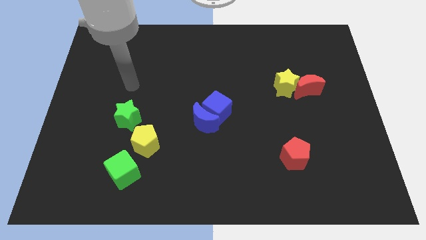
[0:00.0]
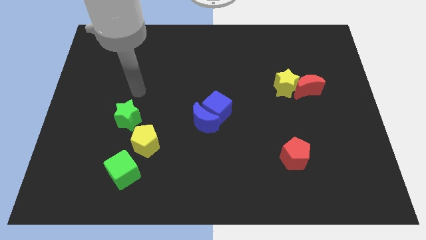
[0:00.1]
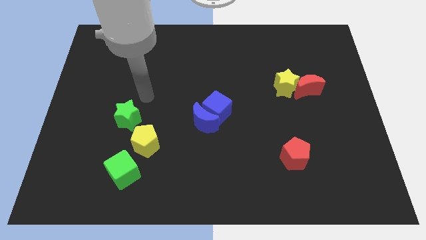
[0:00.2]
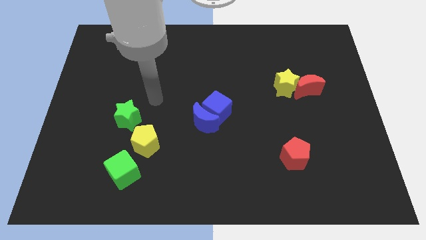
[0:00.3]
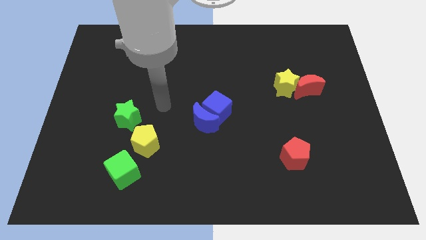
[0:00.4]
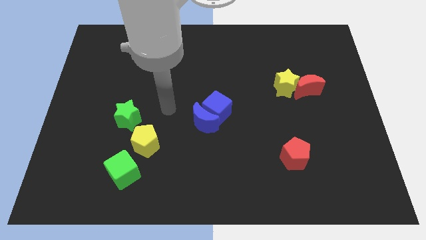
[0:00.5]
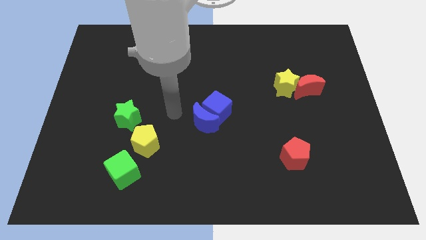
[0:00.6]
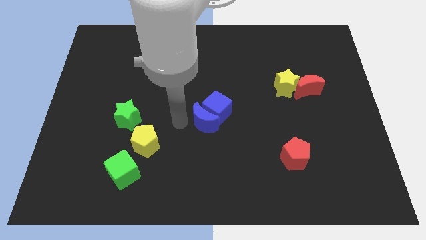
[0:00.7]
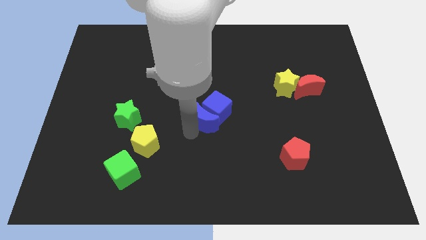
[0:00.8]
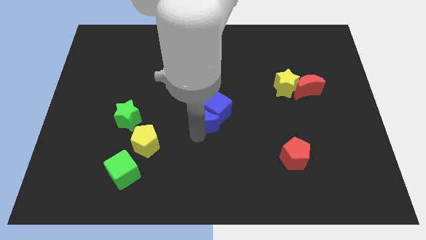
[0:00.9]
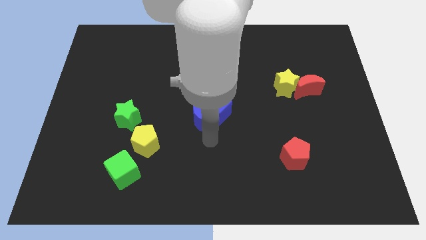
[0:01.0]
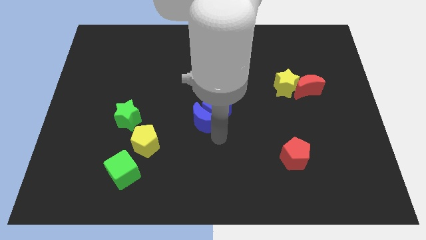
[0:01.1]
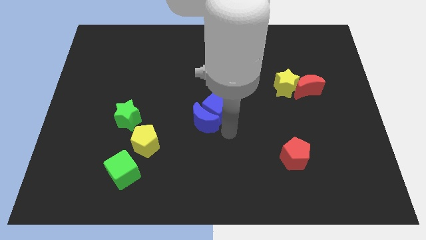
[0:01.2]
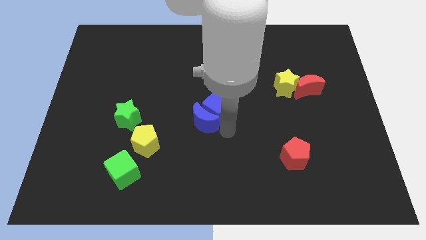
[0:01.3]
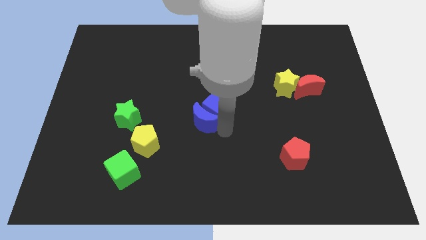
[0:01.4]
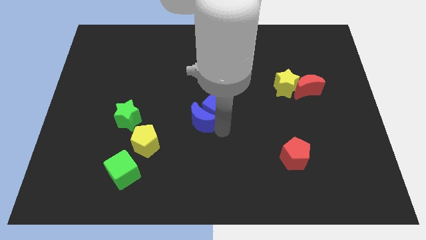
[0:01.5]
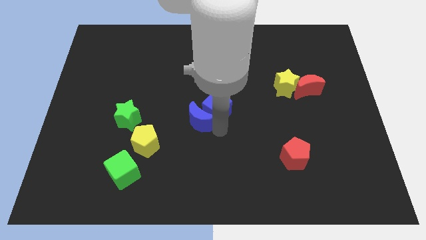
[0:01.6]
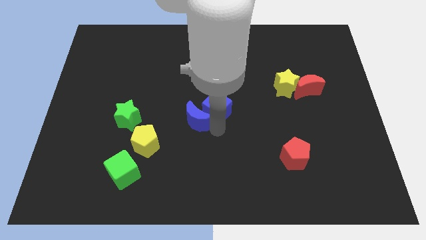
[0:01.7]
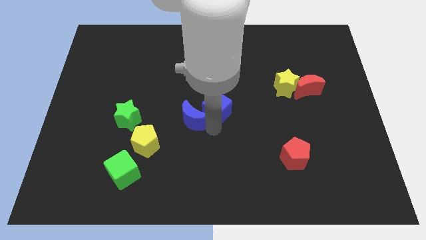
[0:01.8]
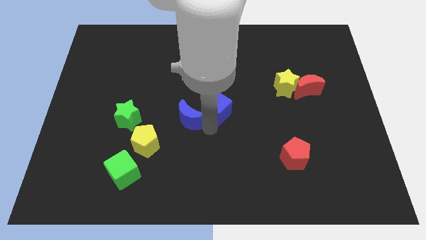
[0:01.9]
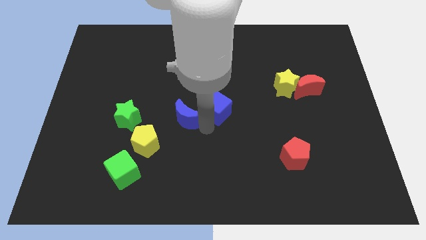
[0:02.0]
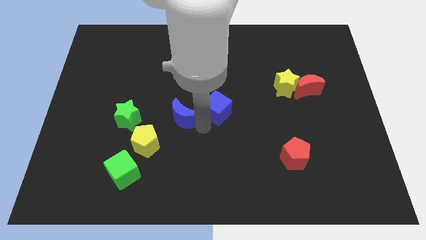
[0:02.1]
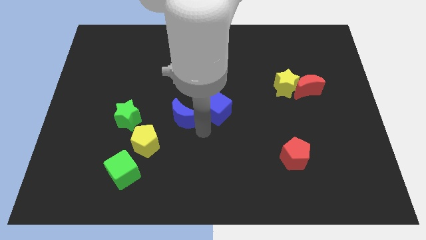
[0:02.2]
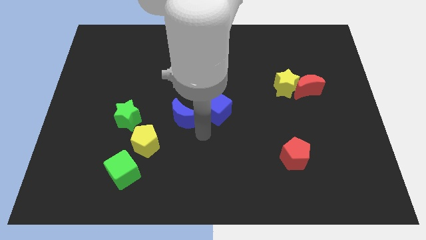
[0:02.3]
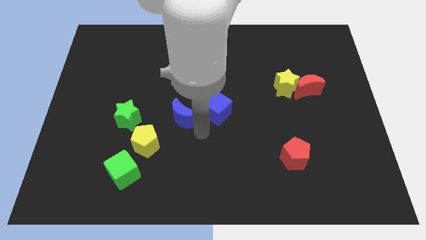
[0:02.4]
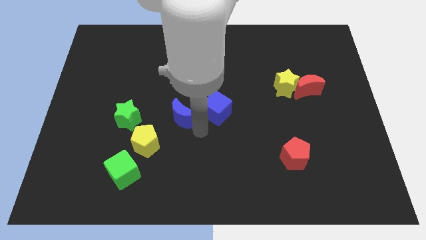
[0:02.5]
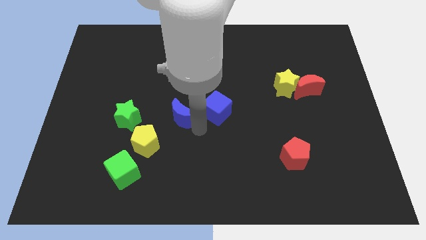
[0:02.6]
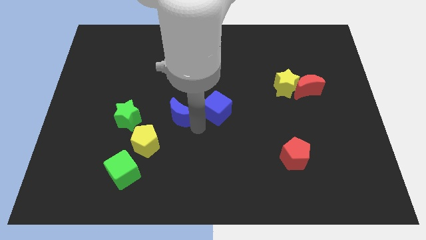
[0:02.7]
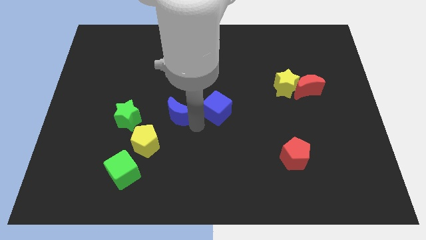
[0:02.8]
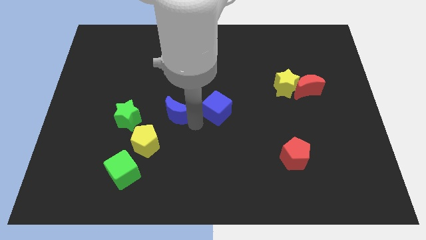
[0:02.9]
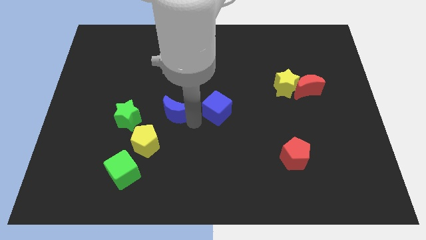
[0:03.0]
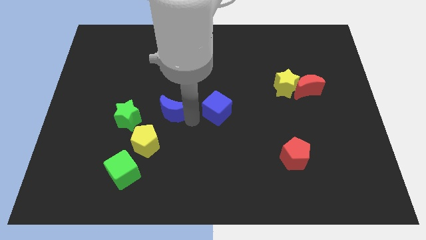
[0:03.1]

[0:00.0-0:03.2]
slide the blue moon a little bit up and to the left diagonally

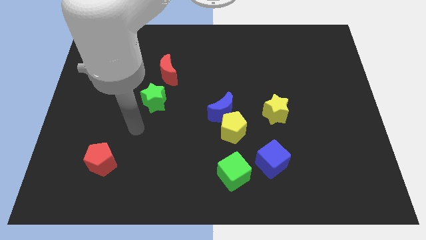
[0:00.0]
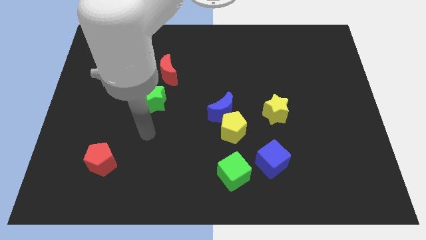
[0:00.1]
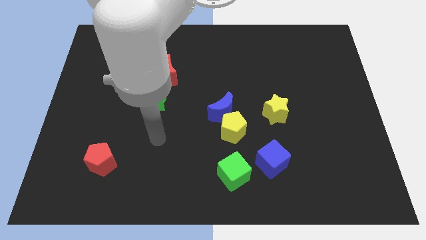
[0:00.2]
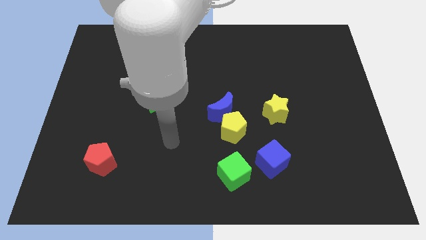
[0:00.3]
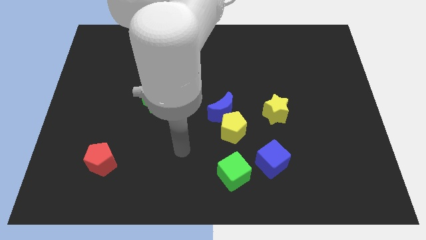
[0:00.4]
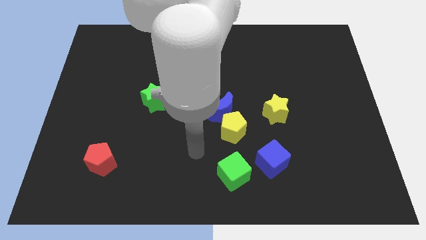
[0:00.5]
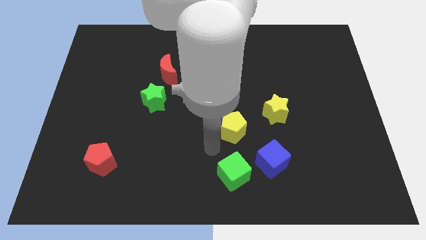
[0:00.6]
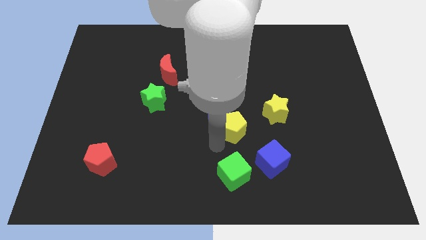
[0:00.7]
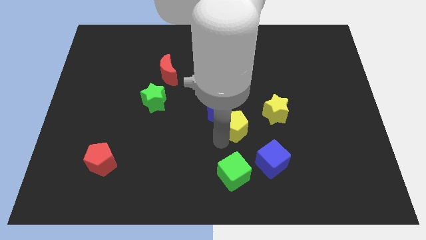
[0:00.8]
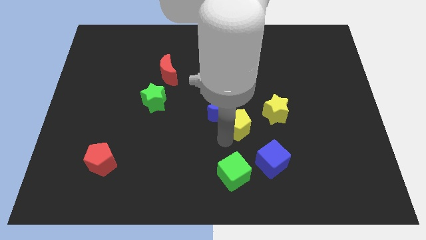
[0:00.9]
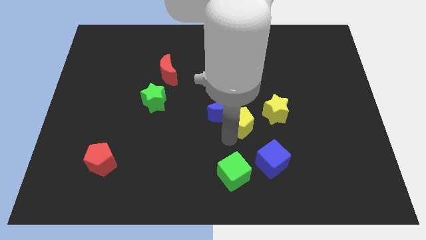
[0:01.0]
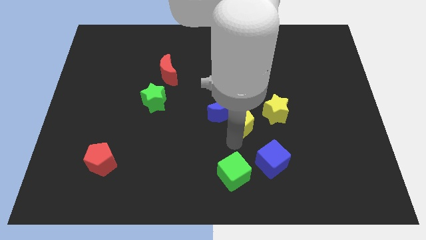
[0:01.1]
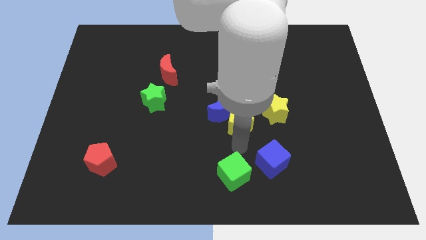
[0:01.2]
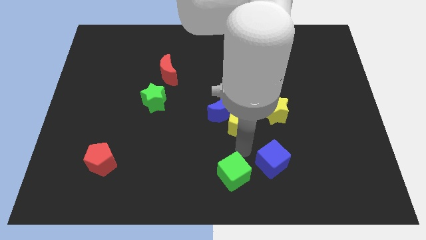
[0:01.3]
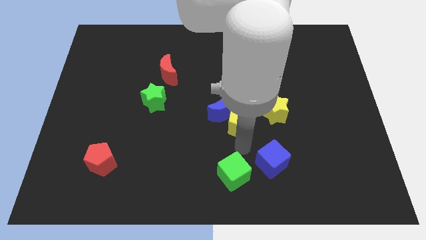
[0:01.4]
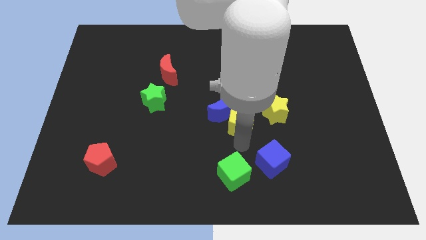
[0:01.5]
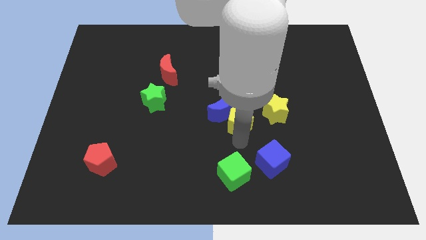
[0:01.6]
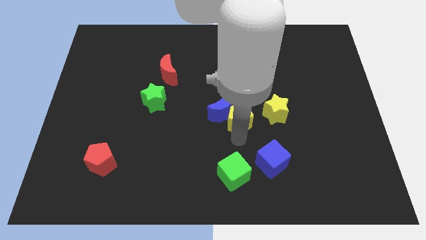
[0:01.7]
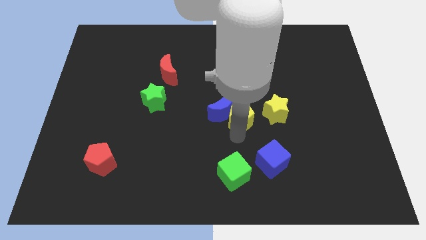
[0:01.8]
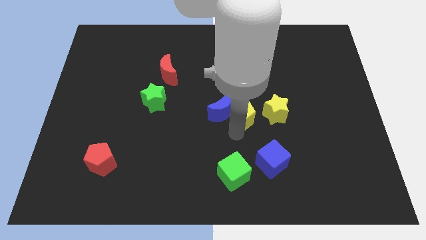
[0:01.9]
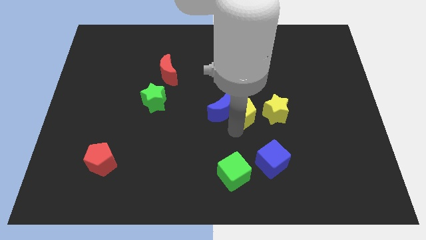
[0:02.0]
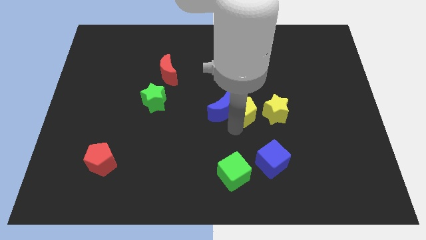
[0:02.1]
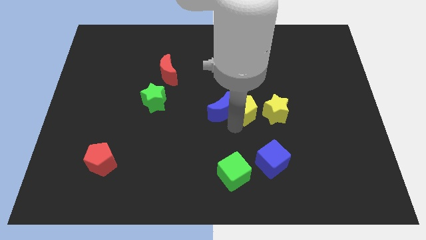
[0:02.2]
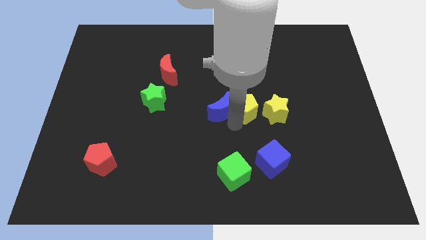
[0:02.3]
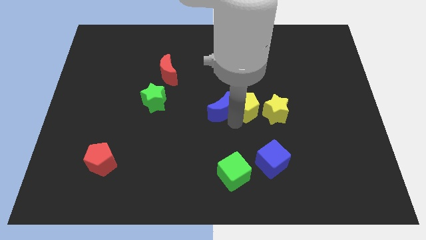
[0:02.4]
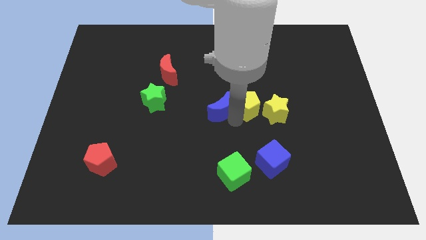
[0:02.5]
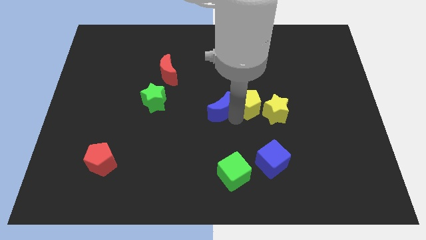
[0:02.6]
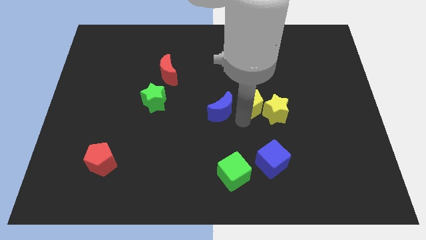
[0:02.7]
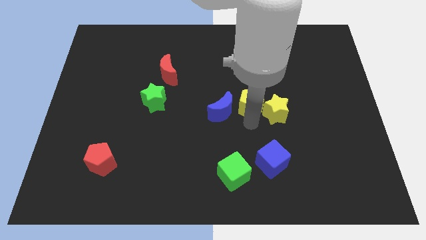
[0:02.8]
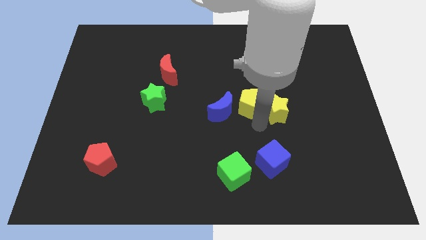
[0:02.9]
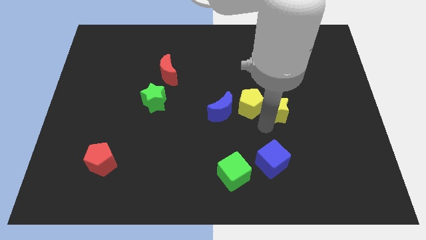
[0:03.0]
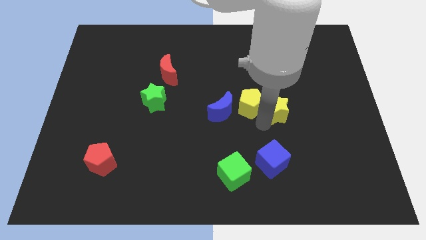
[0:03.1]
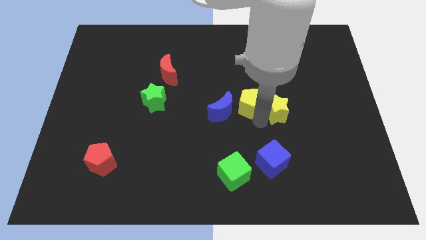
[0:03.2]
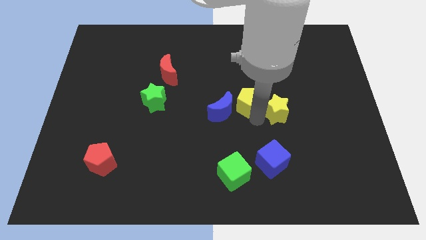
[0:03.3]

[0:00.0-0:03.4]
push the yellow pentagon up a little

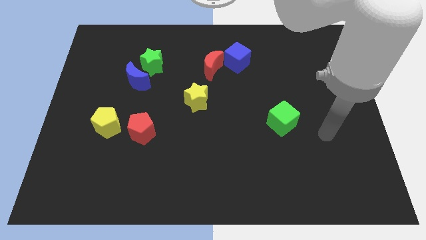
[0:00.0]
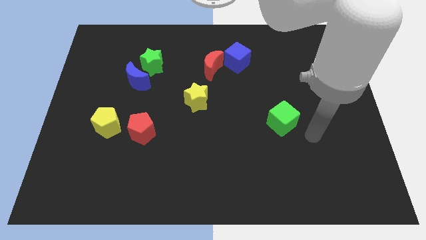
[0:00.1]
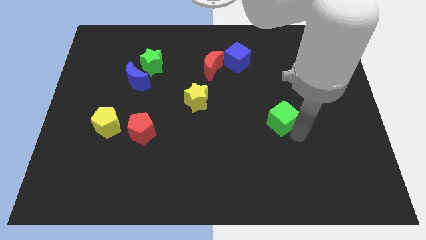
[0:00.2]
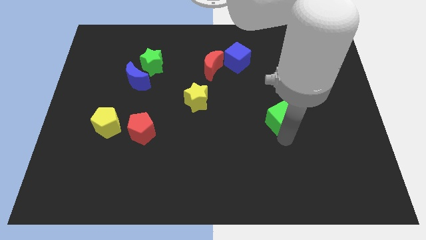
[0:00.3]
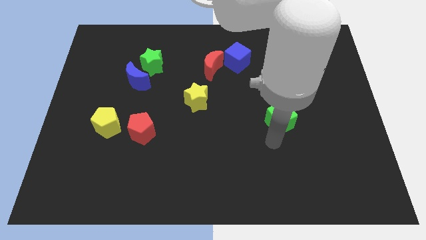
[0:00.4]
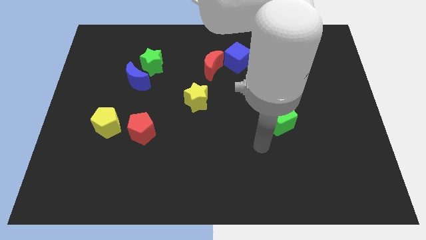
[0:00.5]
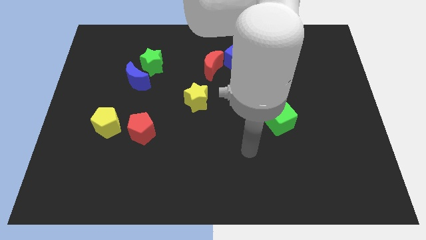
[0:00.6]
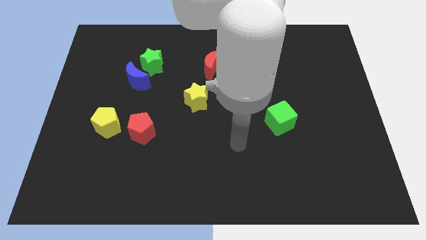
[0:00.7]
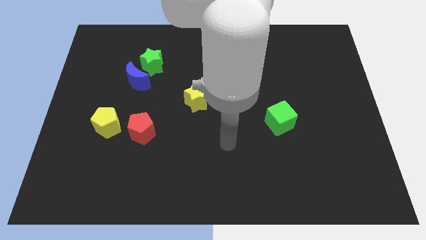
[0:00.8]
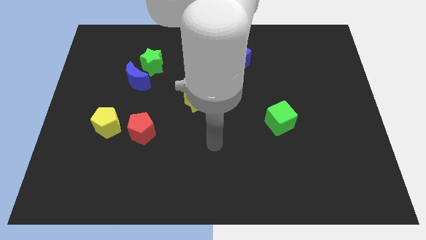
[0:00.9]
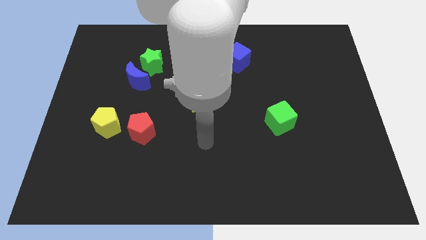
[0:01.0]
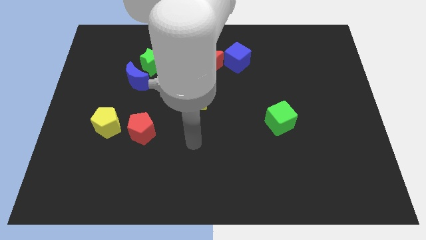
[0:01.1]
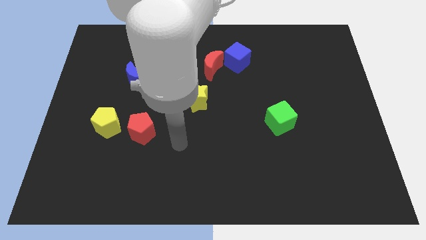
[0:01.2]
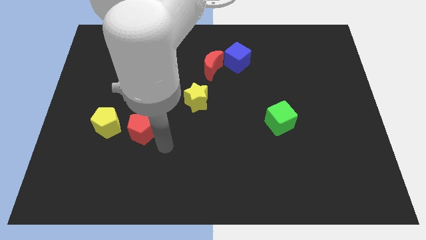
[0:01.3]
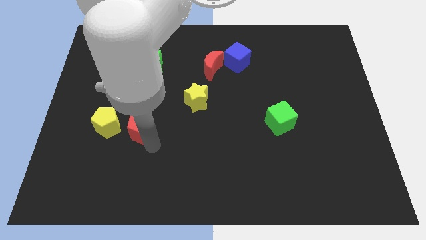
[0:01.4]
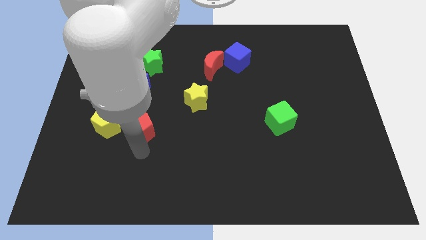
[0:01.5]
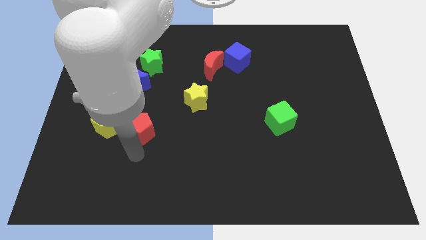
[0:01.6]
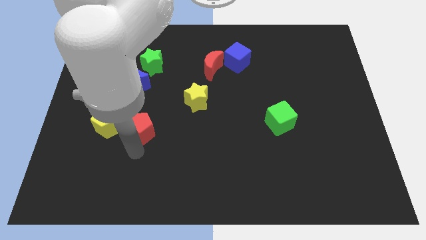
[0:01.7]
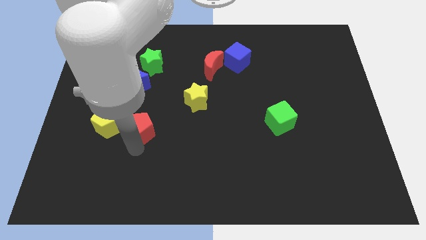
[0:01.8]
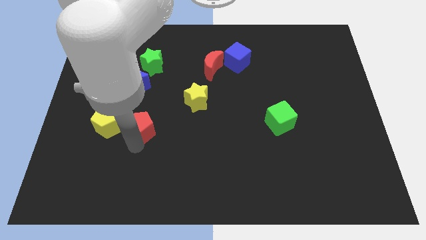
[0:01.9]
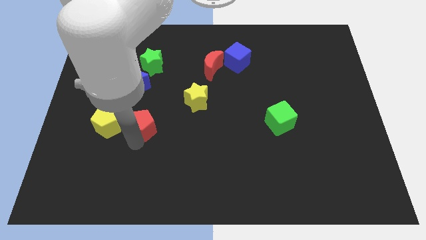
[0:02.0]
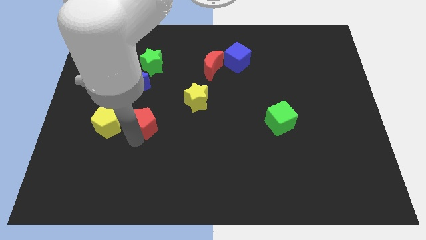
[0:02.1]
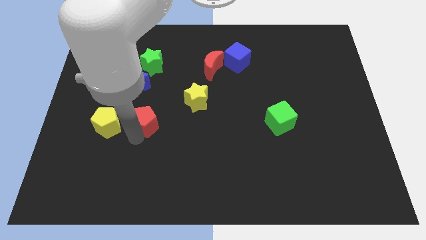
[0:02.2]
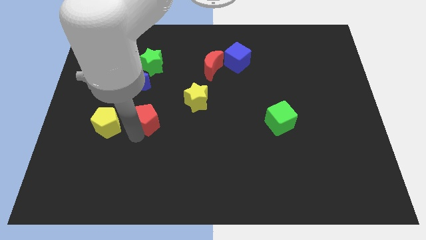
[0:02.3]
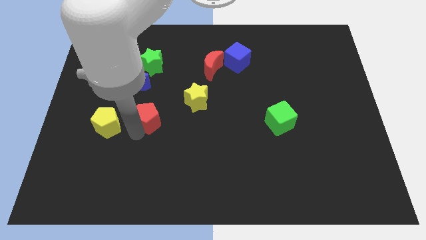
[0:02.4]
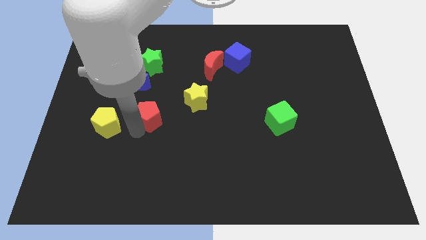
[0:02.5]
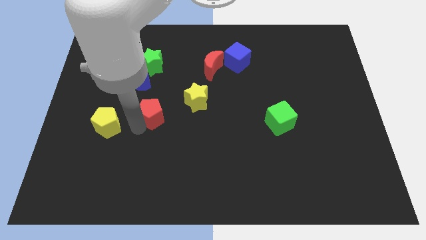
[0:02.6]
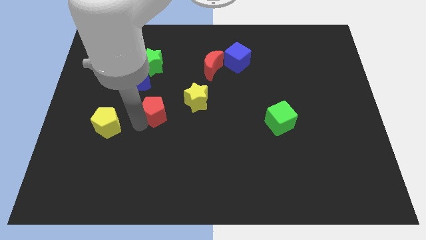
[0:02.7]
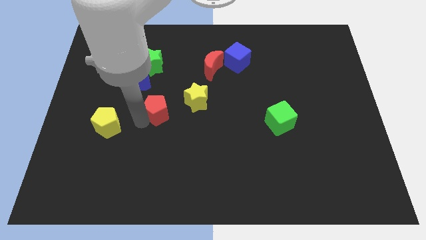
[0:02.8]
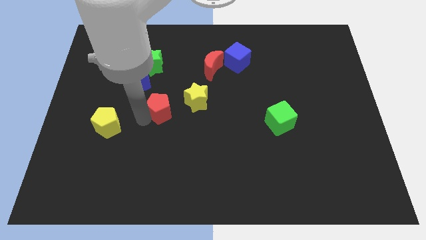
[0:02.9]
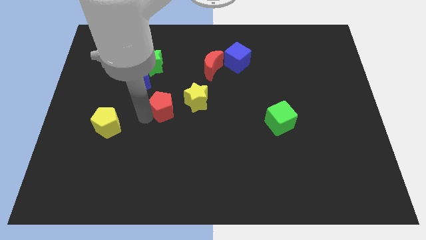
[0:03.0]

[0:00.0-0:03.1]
push the red pentagon somewhat upwards and right diagonally
